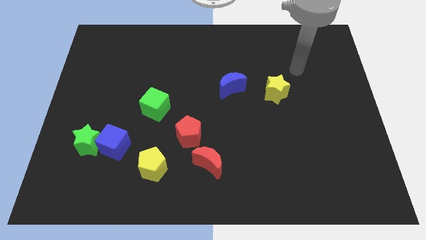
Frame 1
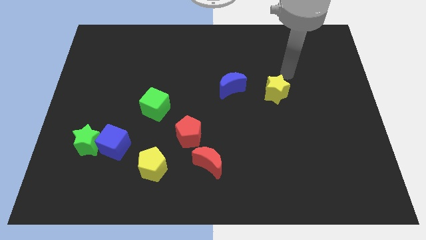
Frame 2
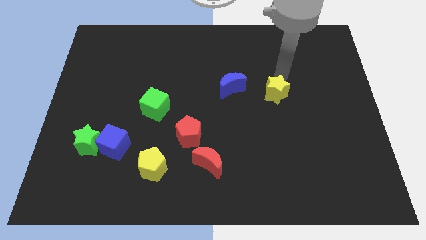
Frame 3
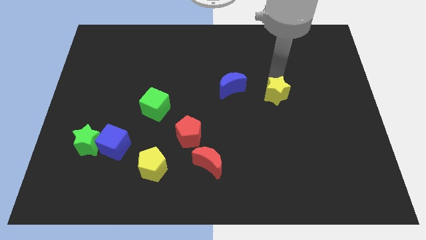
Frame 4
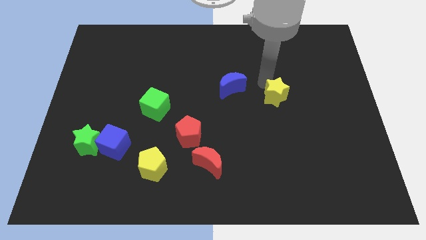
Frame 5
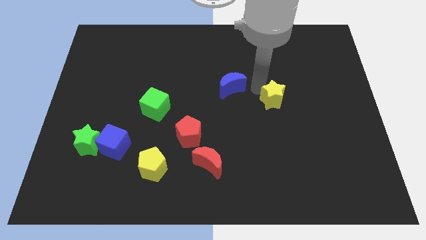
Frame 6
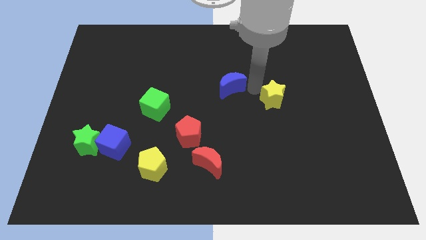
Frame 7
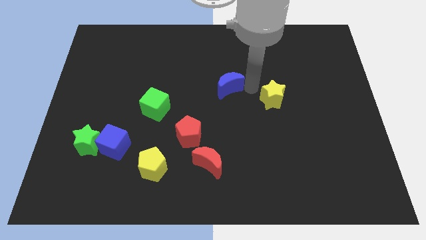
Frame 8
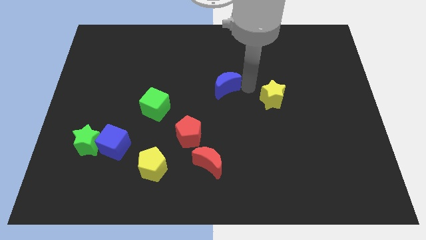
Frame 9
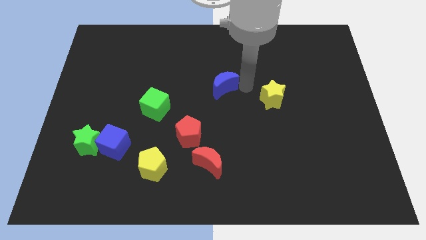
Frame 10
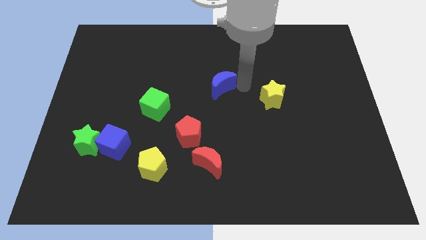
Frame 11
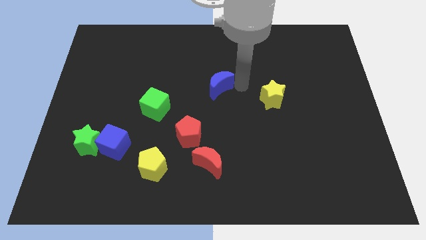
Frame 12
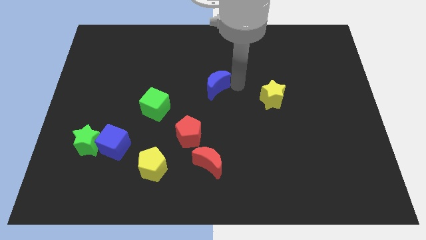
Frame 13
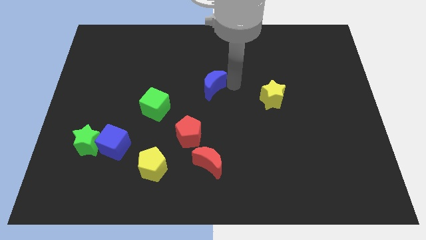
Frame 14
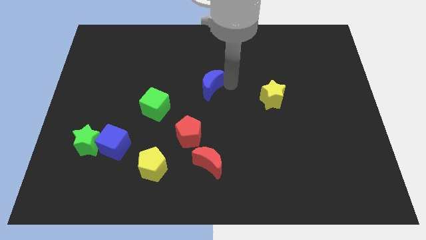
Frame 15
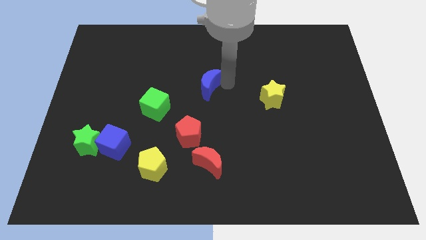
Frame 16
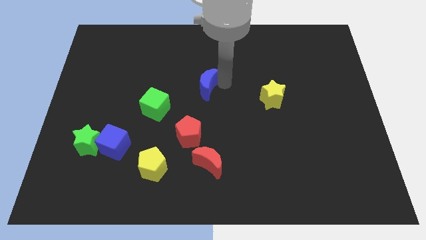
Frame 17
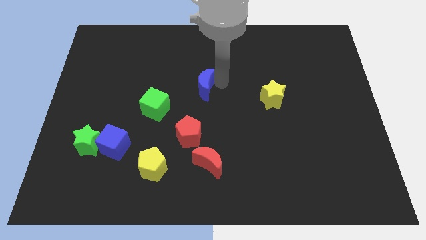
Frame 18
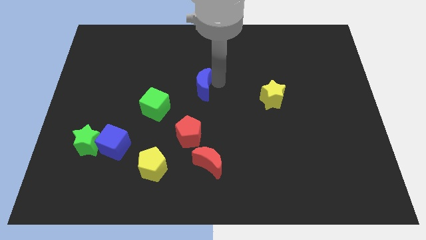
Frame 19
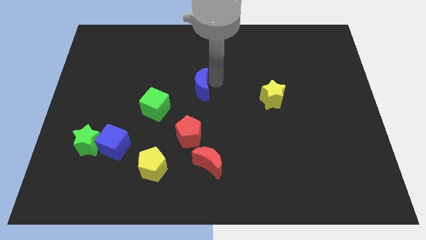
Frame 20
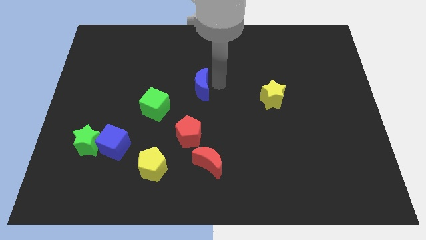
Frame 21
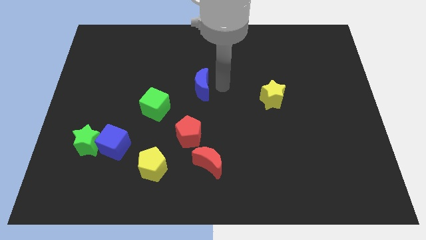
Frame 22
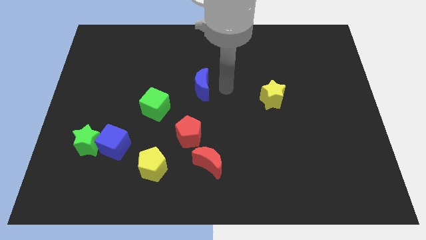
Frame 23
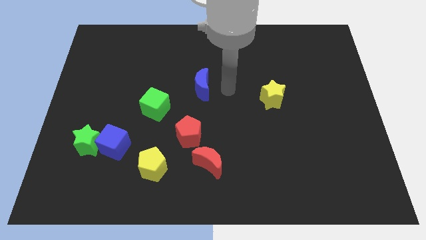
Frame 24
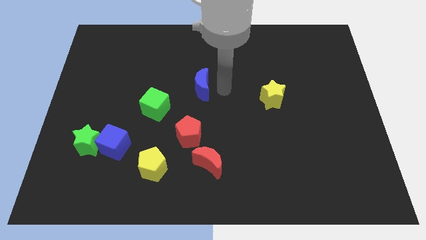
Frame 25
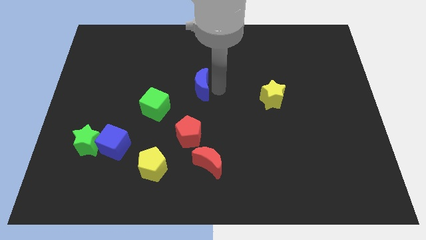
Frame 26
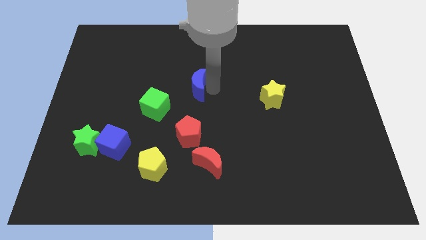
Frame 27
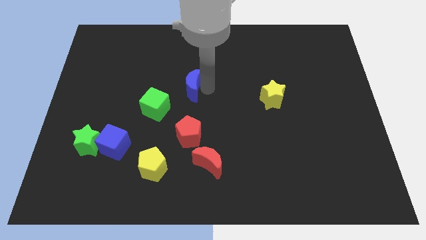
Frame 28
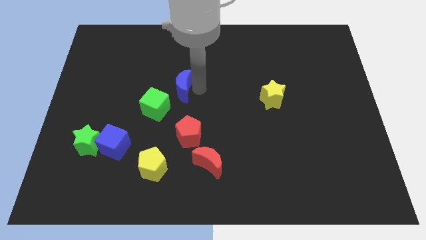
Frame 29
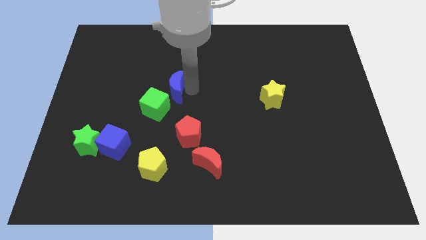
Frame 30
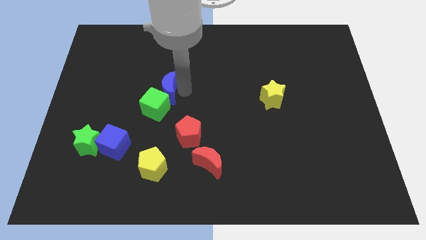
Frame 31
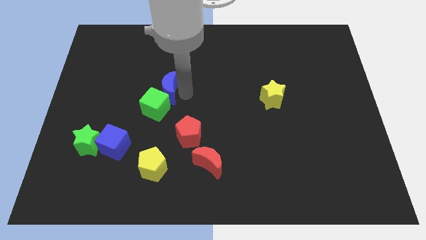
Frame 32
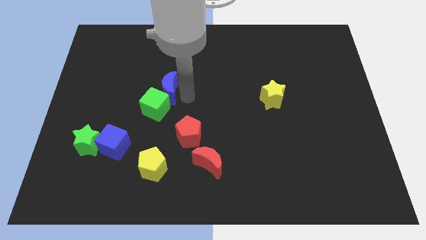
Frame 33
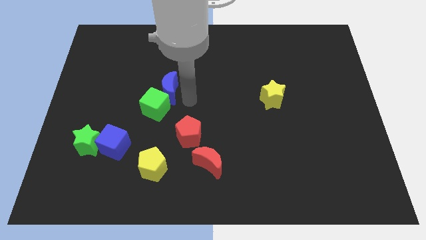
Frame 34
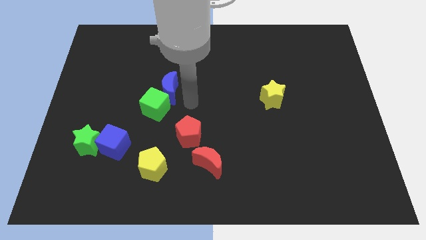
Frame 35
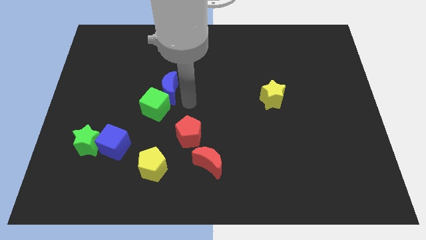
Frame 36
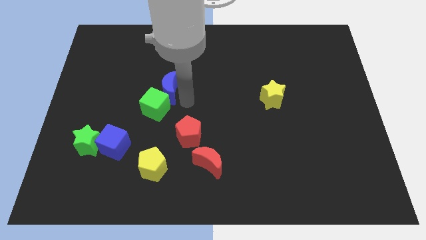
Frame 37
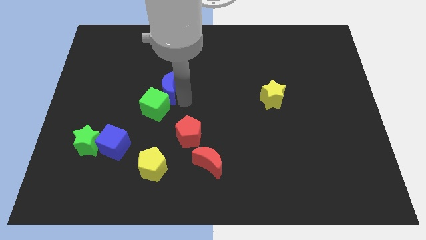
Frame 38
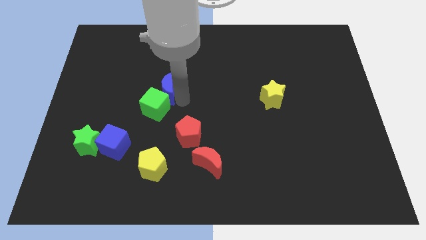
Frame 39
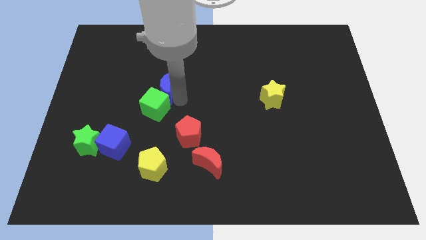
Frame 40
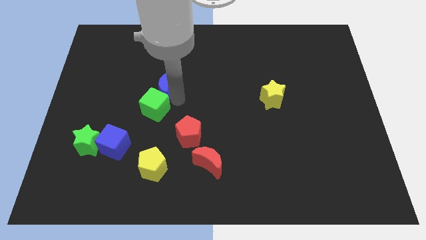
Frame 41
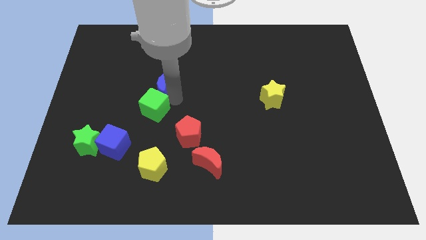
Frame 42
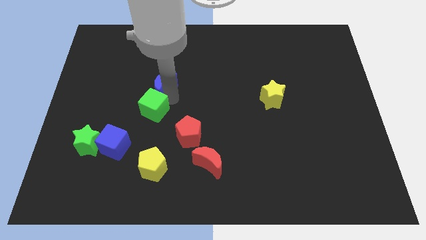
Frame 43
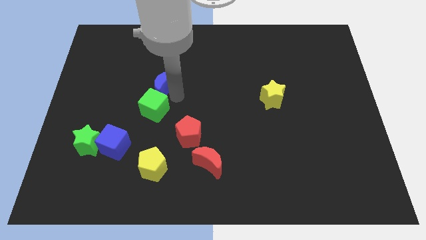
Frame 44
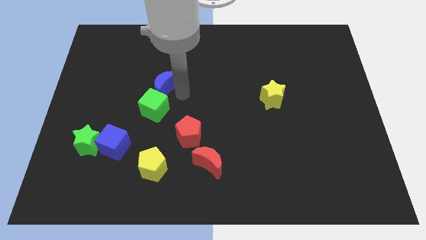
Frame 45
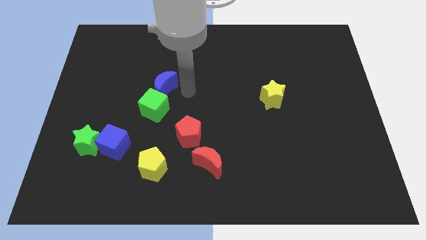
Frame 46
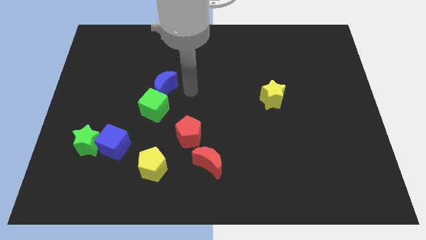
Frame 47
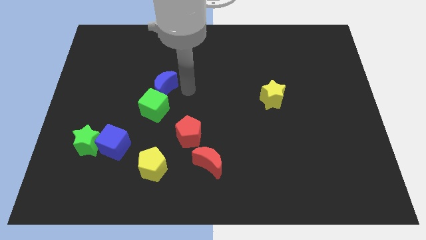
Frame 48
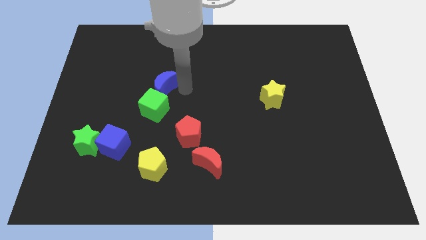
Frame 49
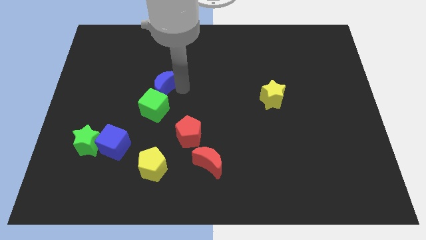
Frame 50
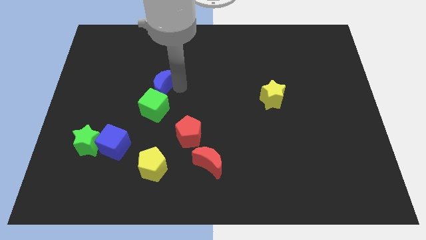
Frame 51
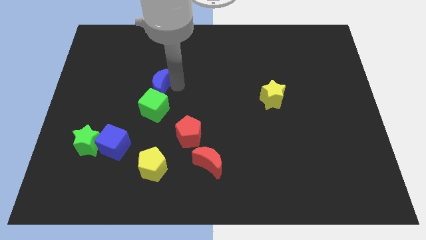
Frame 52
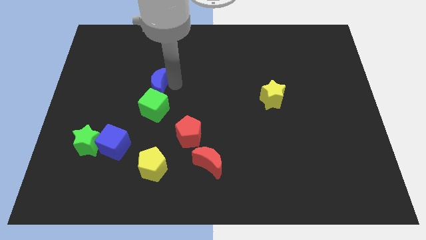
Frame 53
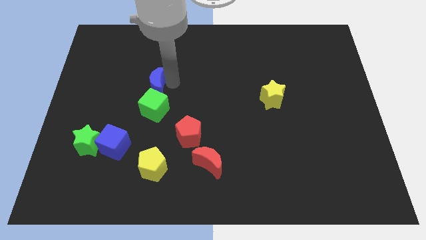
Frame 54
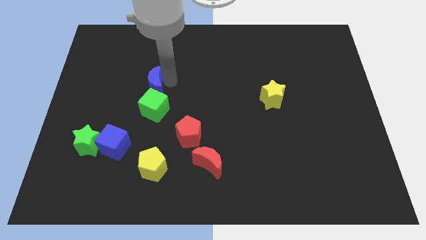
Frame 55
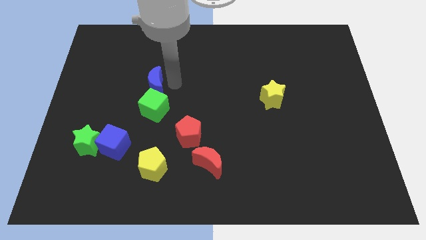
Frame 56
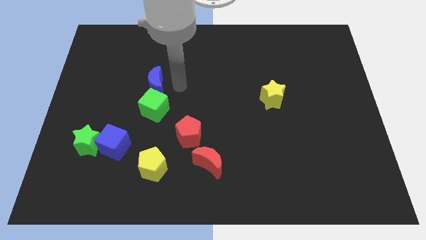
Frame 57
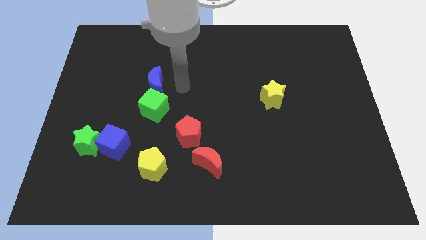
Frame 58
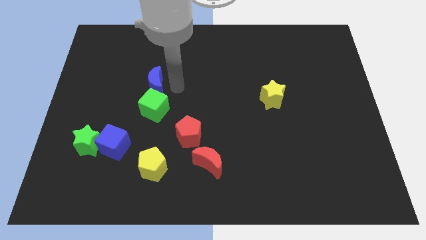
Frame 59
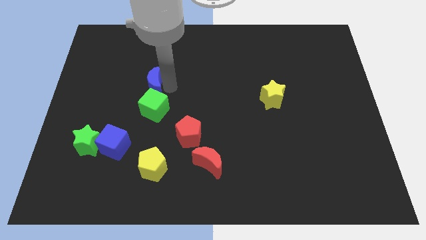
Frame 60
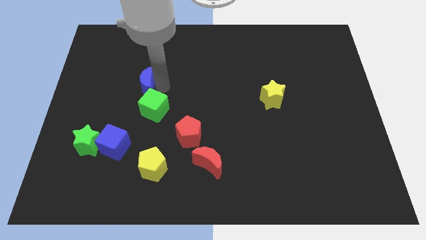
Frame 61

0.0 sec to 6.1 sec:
push the blue moon to the left

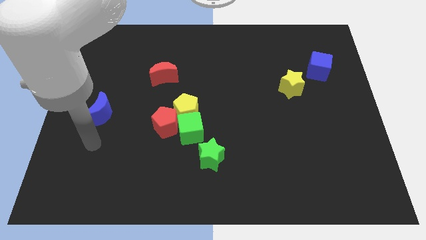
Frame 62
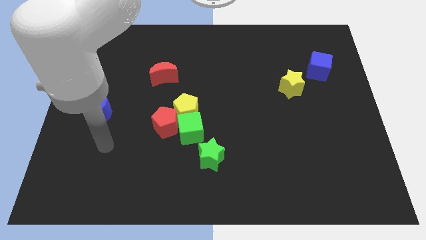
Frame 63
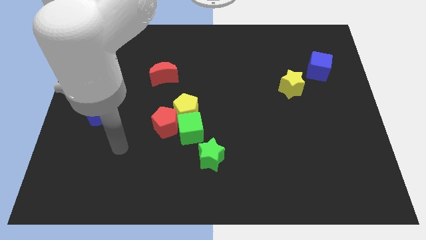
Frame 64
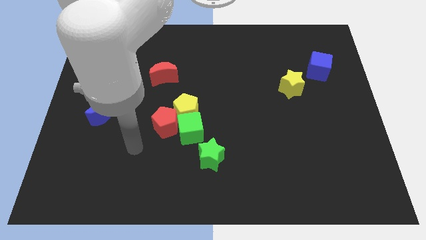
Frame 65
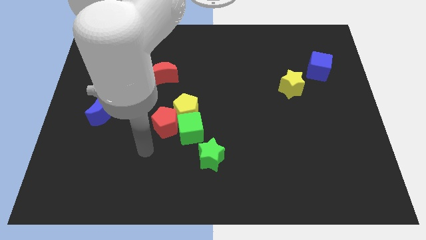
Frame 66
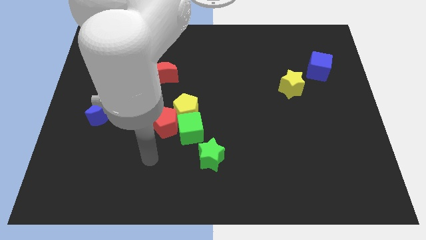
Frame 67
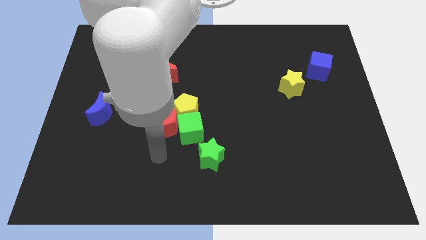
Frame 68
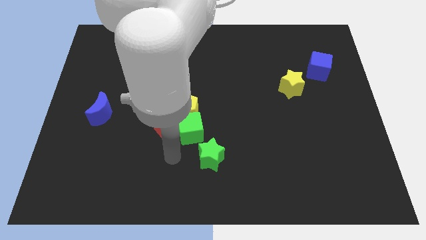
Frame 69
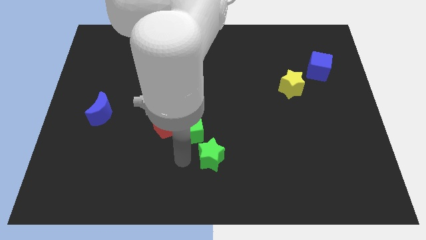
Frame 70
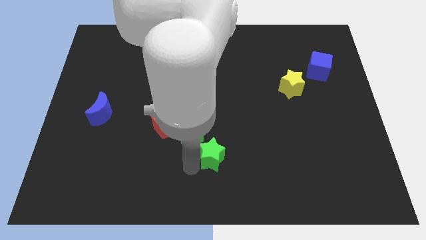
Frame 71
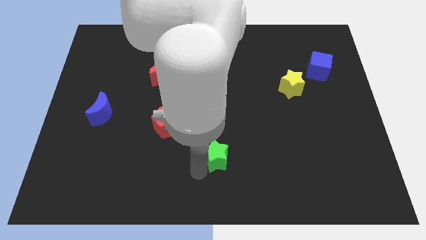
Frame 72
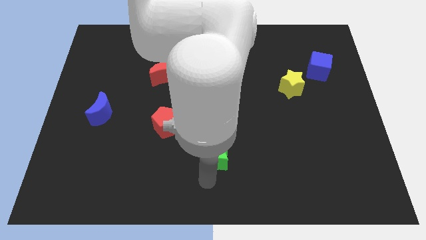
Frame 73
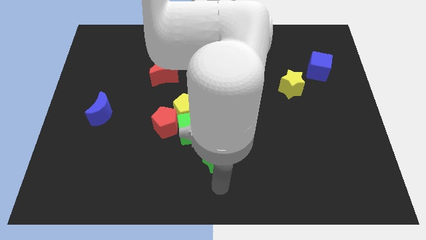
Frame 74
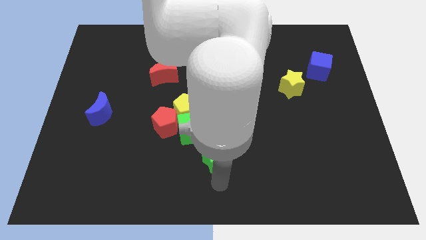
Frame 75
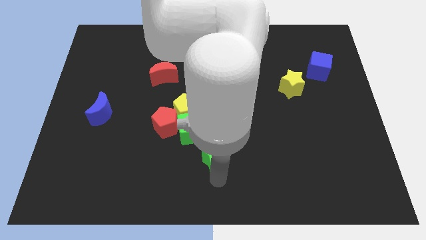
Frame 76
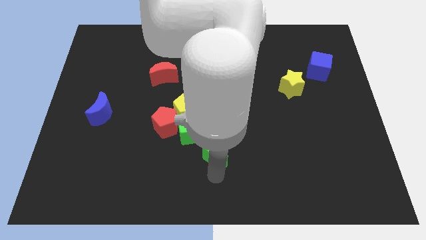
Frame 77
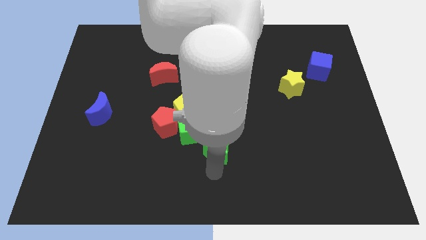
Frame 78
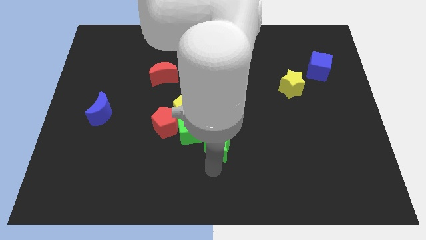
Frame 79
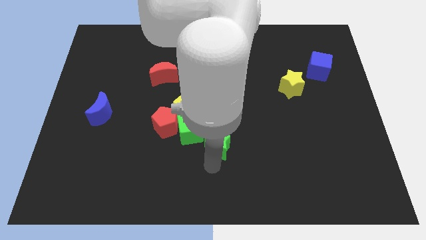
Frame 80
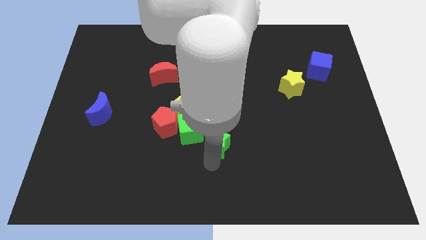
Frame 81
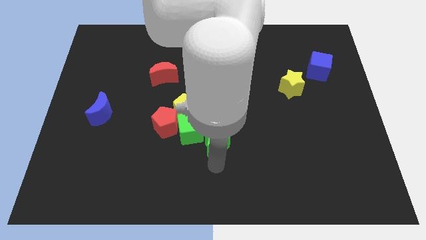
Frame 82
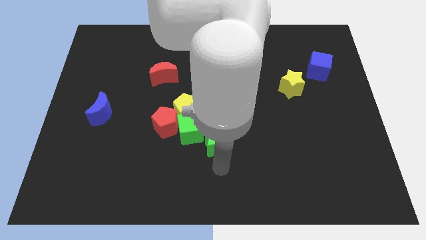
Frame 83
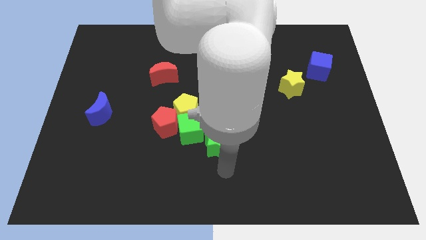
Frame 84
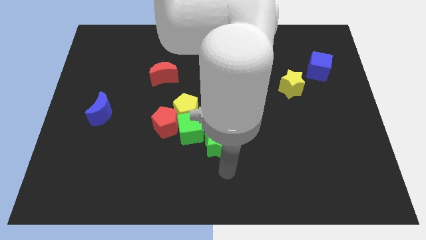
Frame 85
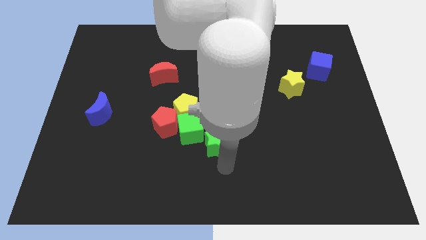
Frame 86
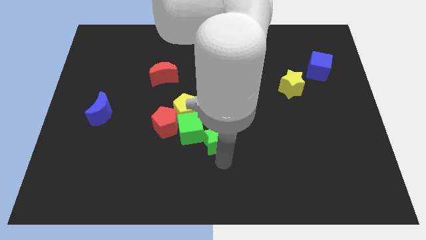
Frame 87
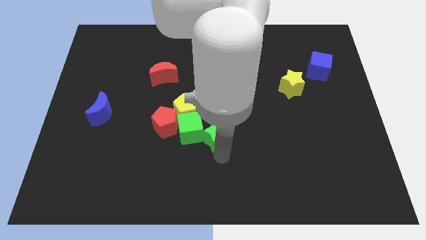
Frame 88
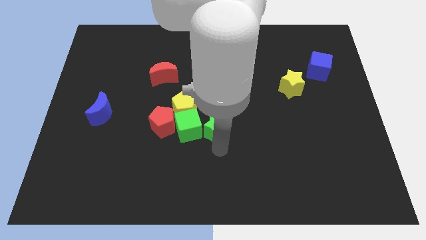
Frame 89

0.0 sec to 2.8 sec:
slightly slide the green star upwards
